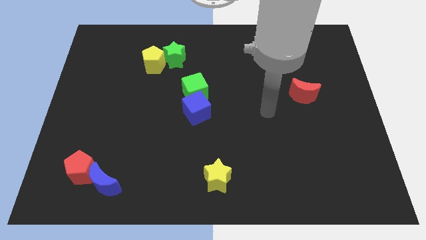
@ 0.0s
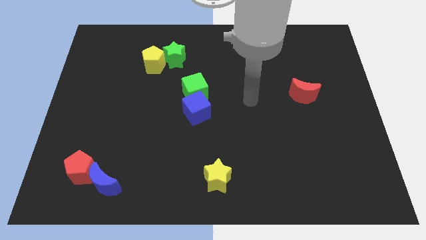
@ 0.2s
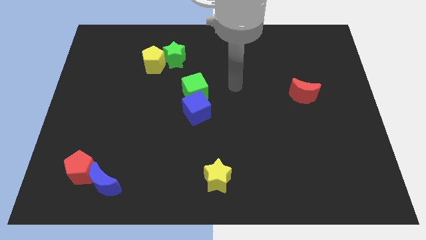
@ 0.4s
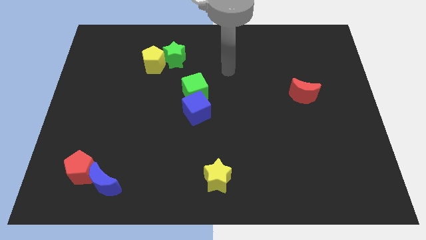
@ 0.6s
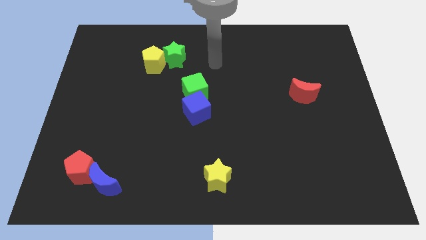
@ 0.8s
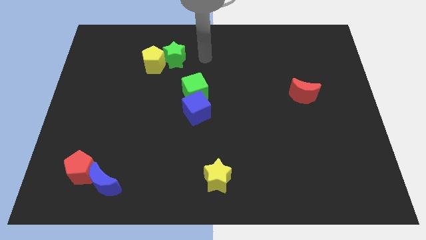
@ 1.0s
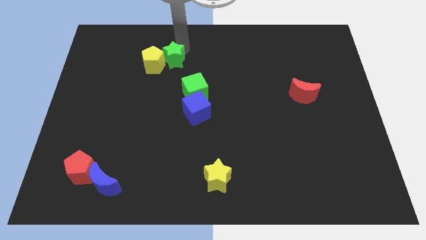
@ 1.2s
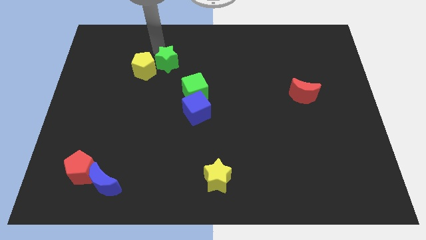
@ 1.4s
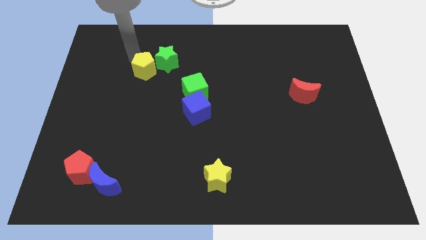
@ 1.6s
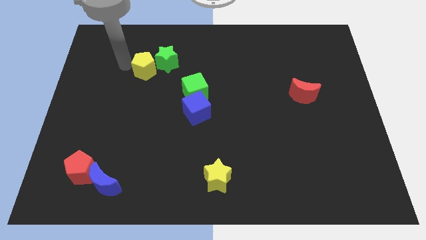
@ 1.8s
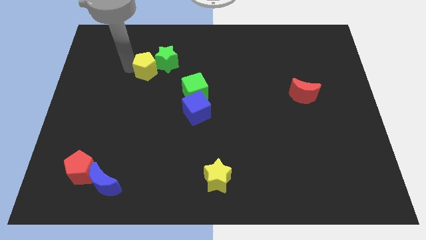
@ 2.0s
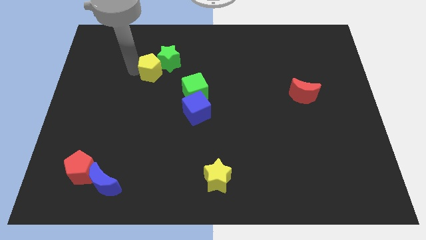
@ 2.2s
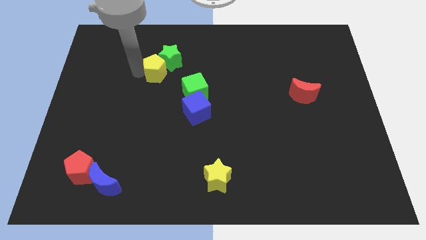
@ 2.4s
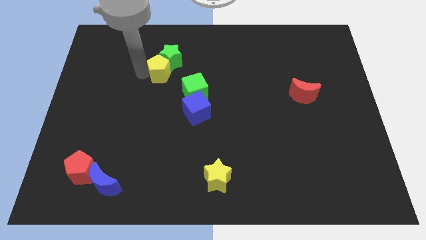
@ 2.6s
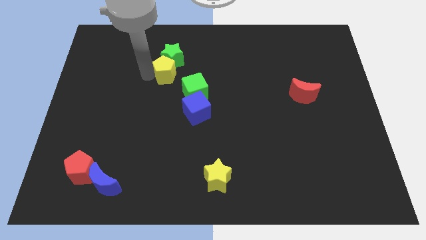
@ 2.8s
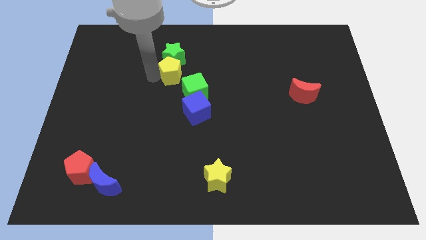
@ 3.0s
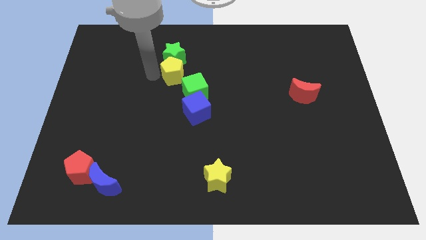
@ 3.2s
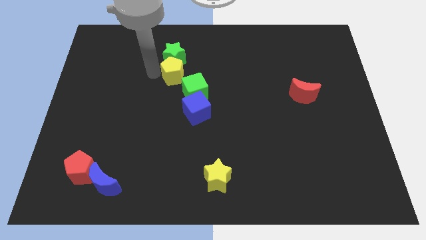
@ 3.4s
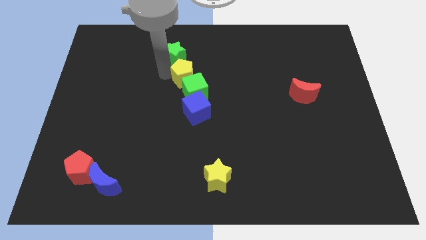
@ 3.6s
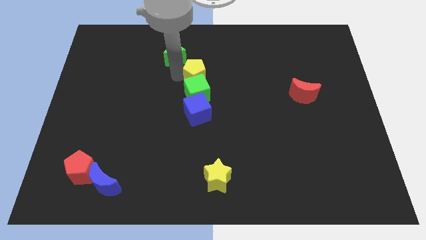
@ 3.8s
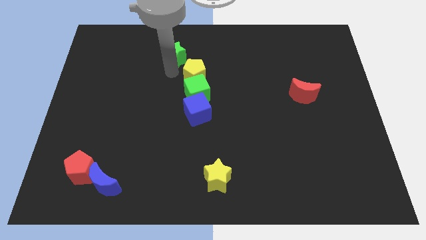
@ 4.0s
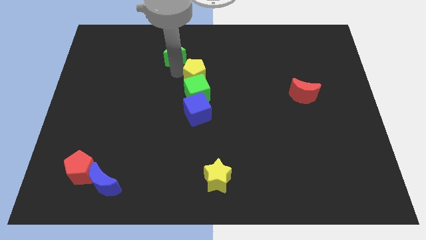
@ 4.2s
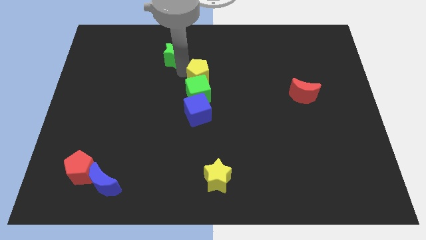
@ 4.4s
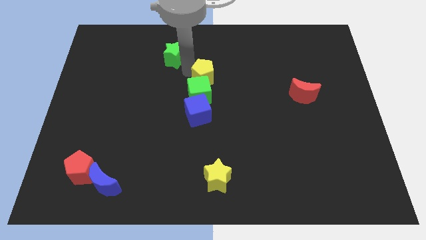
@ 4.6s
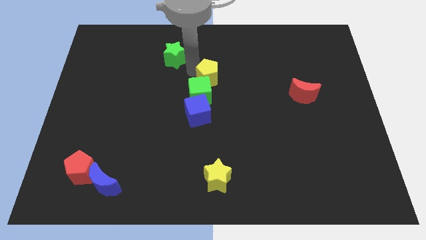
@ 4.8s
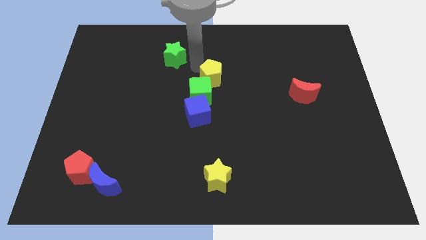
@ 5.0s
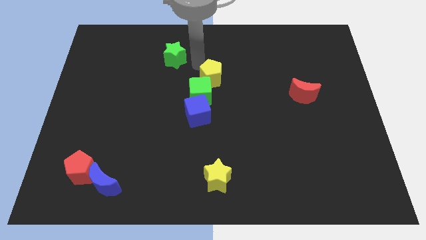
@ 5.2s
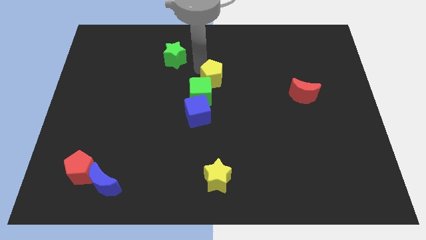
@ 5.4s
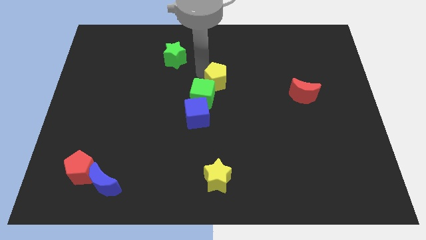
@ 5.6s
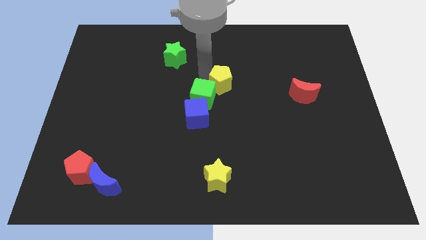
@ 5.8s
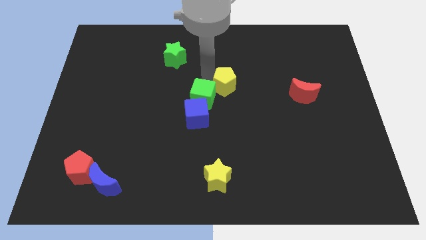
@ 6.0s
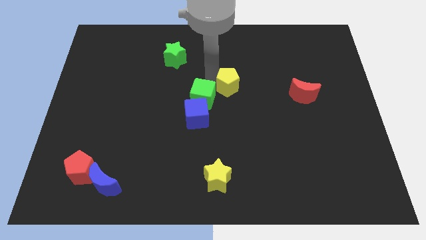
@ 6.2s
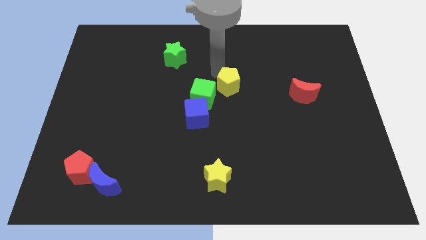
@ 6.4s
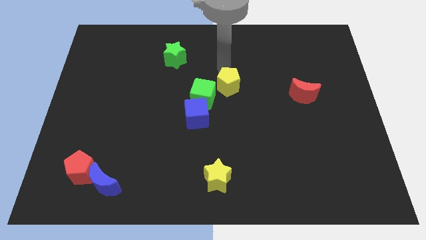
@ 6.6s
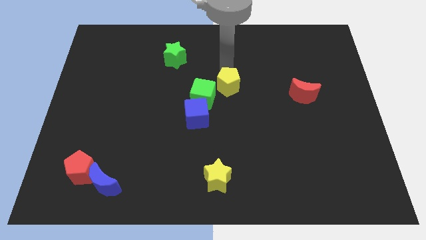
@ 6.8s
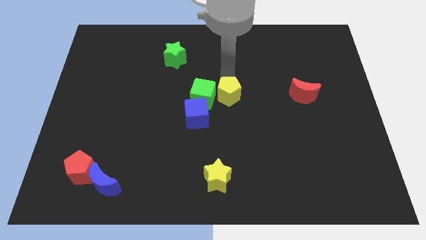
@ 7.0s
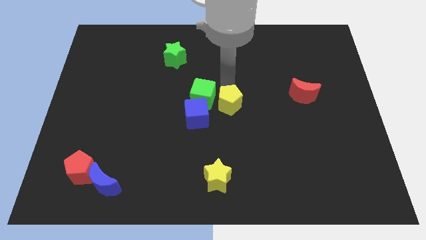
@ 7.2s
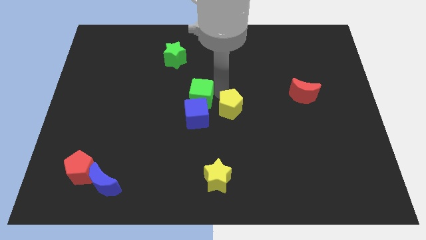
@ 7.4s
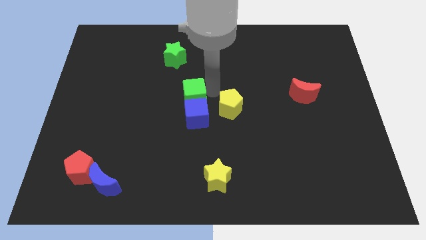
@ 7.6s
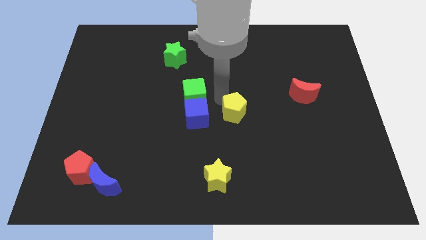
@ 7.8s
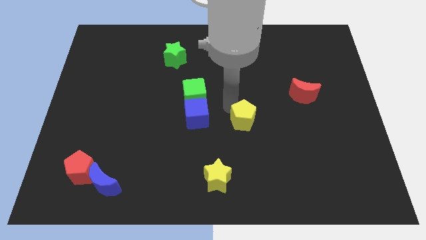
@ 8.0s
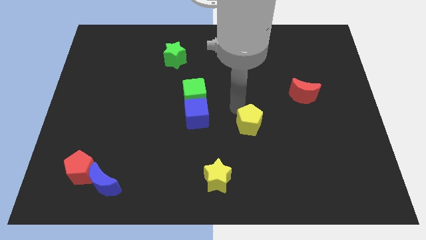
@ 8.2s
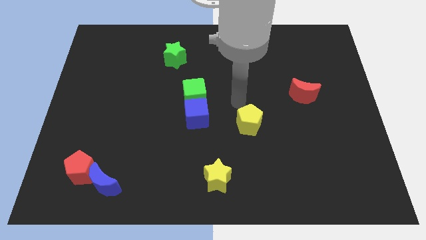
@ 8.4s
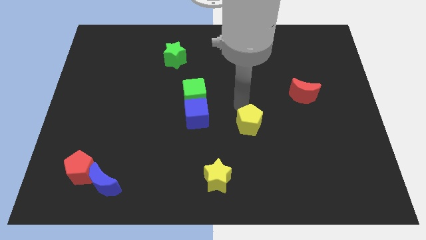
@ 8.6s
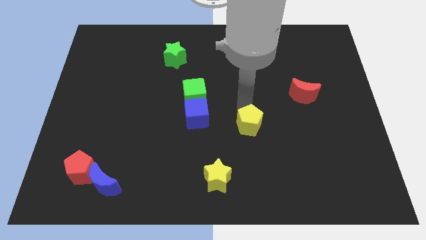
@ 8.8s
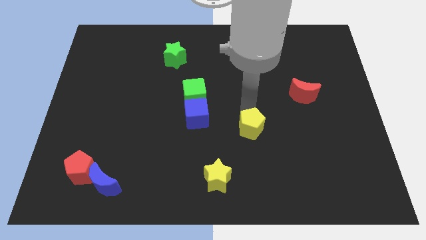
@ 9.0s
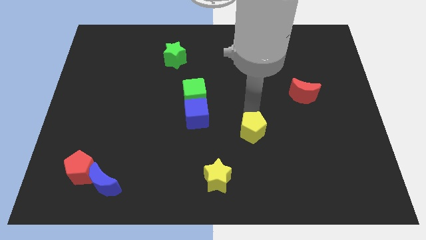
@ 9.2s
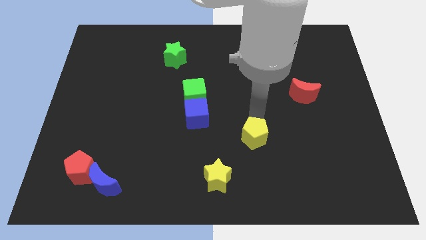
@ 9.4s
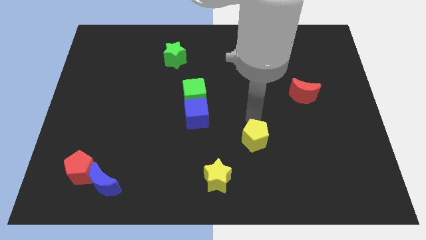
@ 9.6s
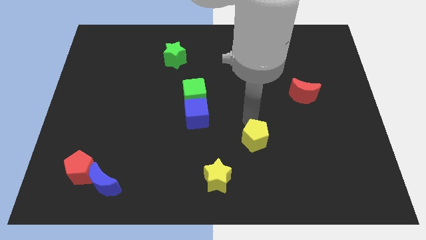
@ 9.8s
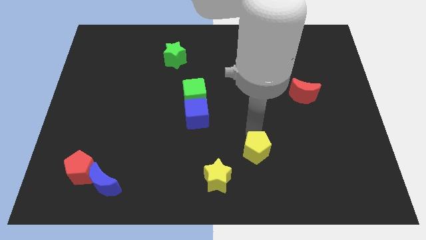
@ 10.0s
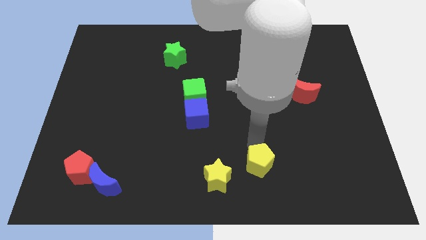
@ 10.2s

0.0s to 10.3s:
slide the yellow pentagon right of the yellow star

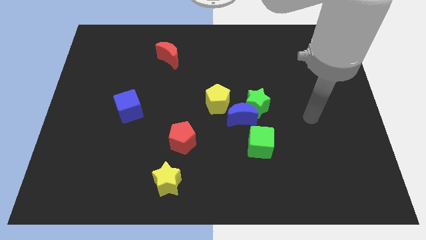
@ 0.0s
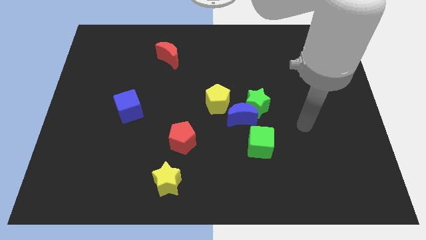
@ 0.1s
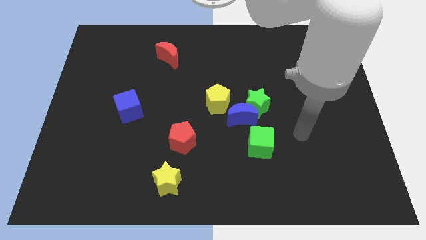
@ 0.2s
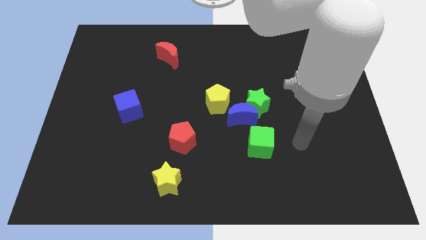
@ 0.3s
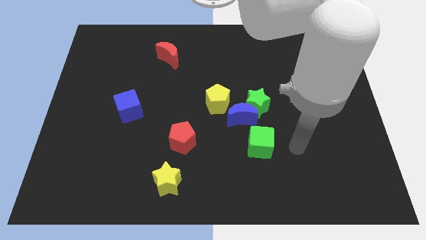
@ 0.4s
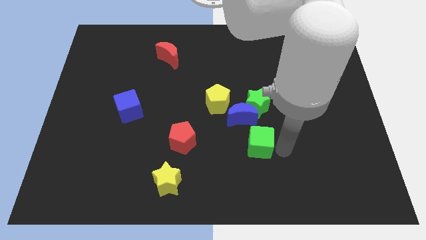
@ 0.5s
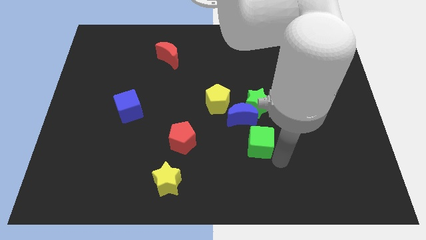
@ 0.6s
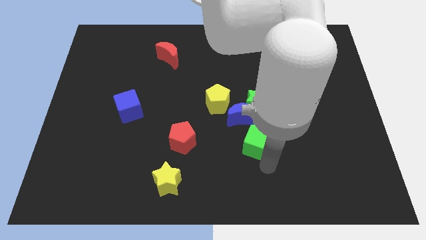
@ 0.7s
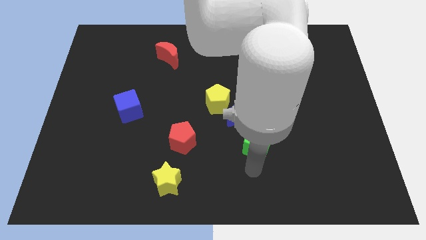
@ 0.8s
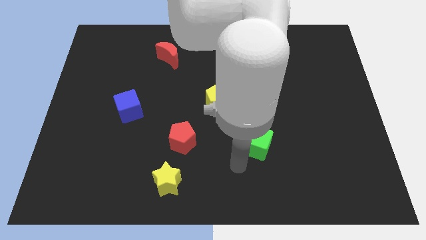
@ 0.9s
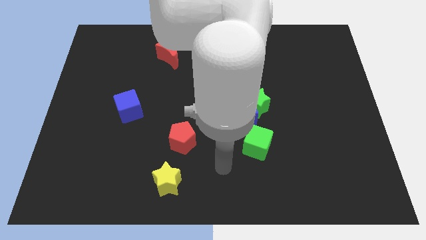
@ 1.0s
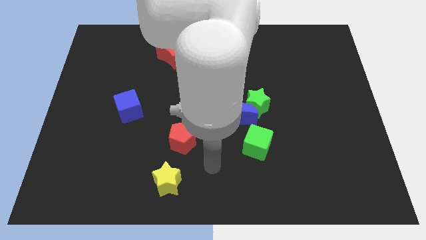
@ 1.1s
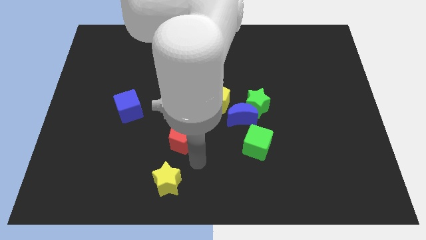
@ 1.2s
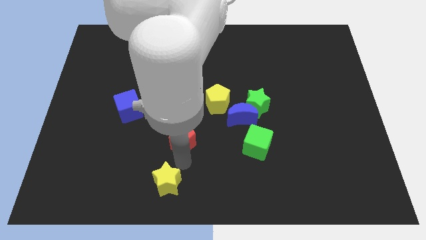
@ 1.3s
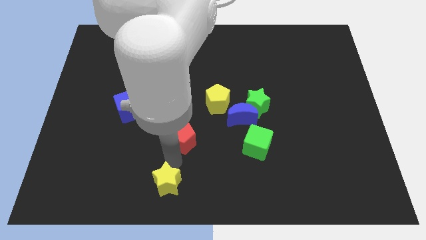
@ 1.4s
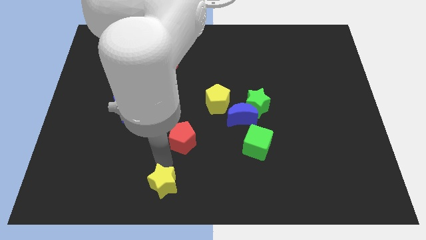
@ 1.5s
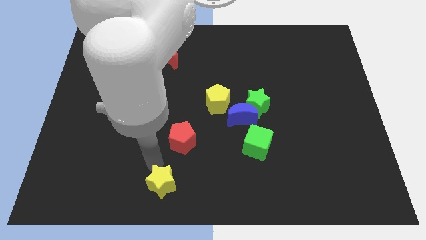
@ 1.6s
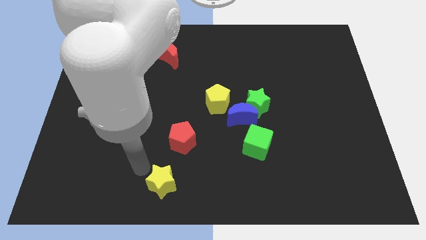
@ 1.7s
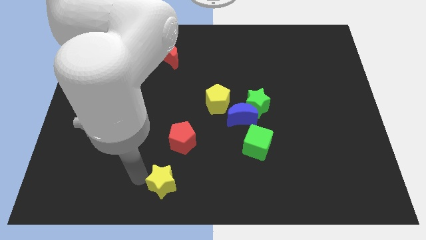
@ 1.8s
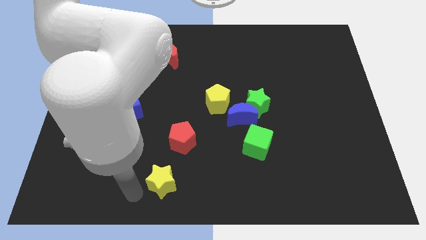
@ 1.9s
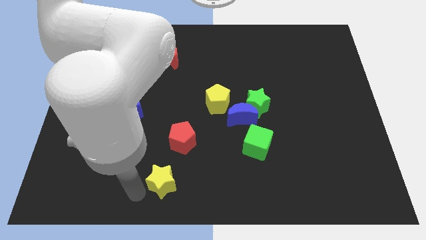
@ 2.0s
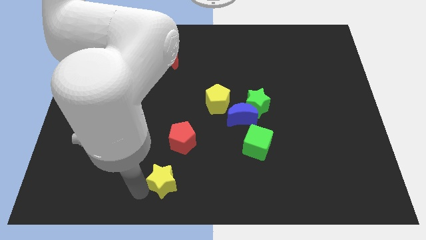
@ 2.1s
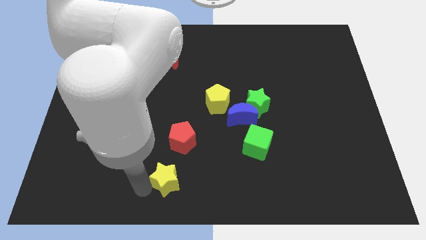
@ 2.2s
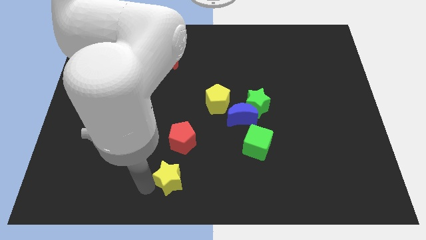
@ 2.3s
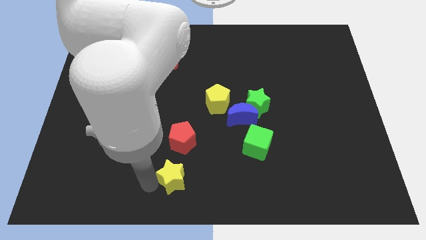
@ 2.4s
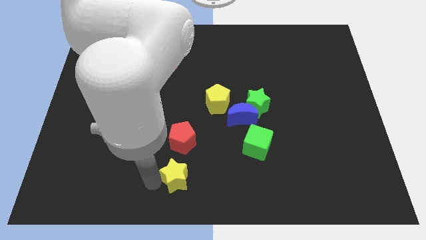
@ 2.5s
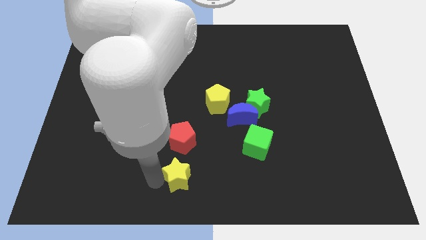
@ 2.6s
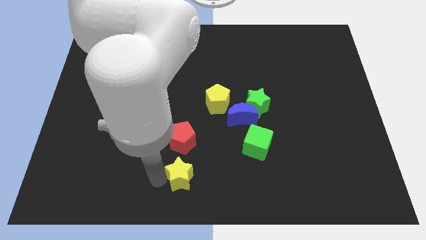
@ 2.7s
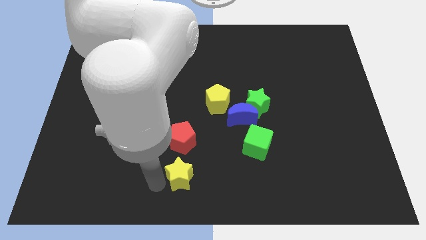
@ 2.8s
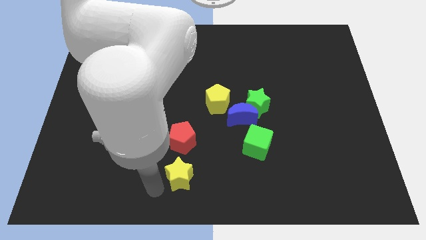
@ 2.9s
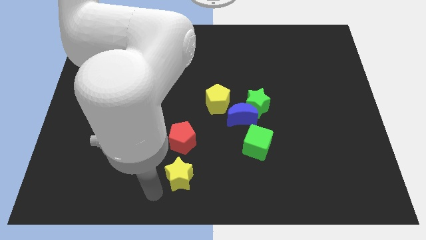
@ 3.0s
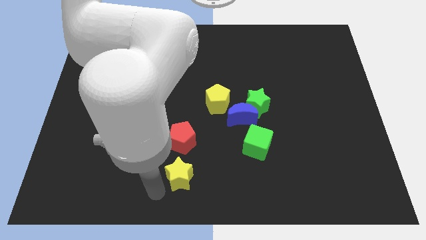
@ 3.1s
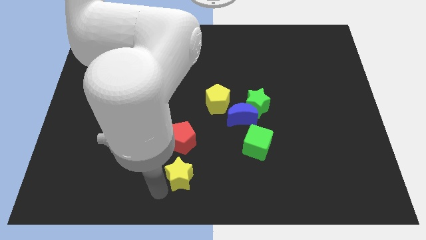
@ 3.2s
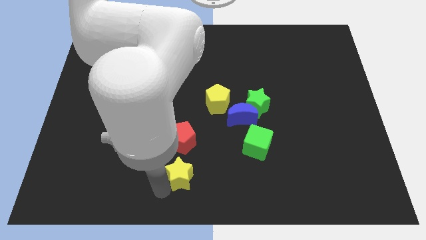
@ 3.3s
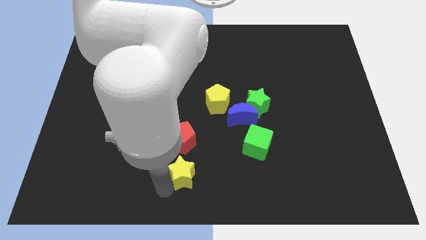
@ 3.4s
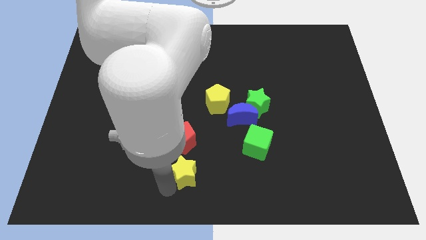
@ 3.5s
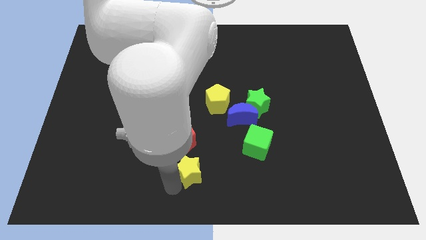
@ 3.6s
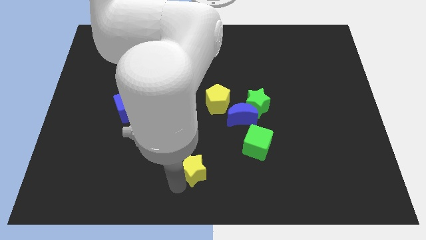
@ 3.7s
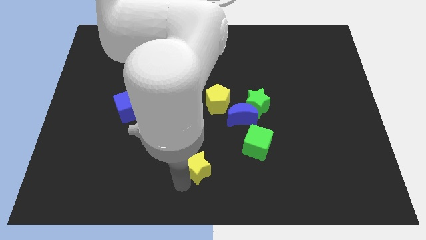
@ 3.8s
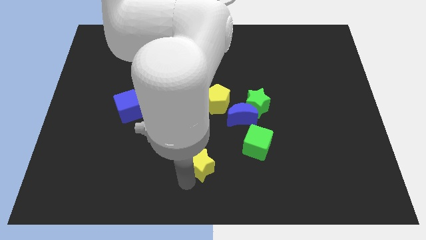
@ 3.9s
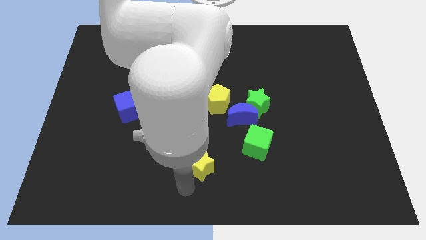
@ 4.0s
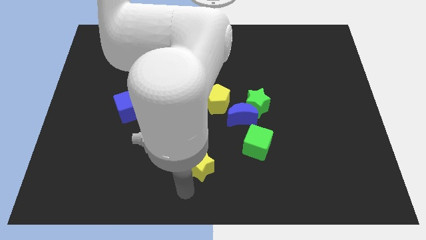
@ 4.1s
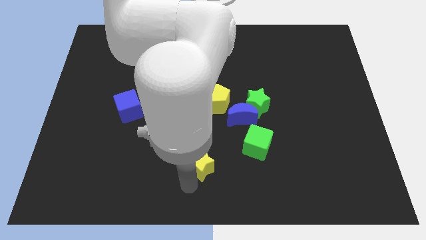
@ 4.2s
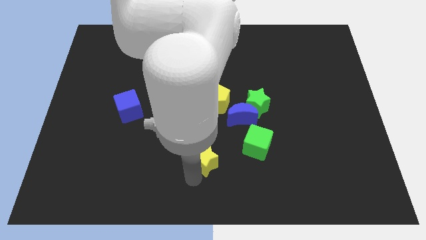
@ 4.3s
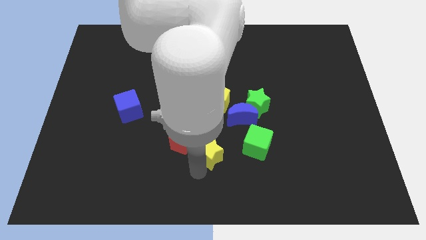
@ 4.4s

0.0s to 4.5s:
push the yellow star to the bottom of the yellow pentagon
